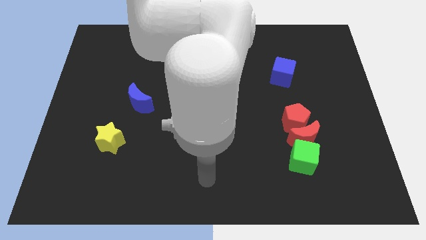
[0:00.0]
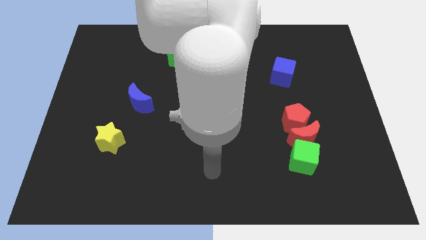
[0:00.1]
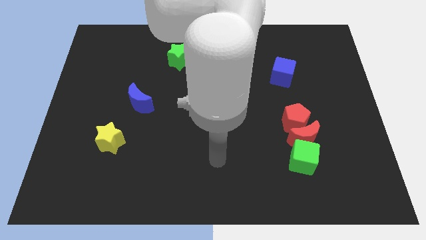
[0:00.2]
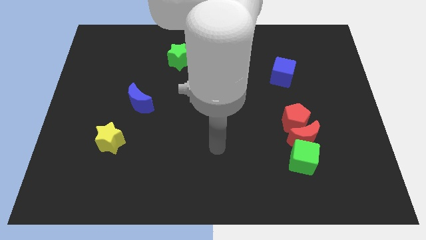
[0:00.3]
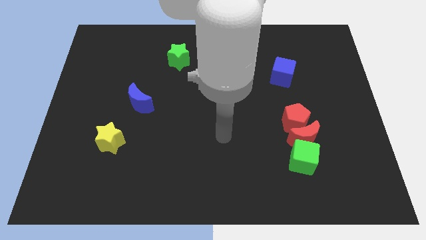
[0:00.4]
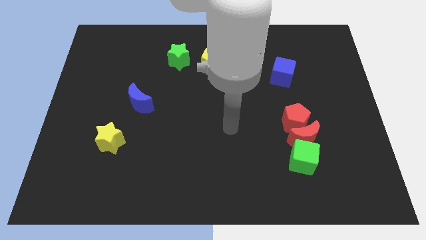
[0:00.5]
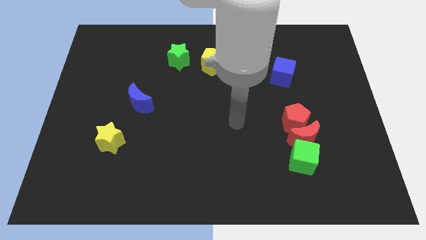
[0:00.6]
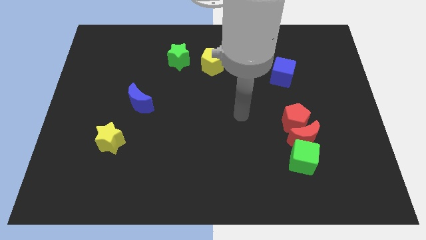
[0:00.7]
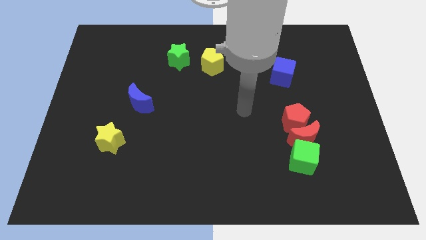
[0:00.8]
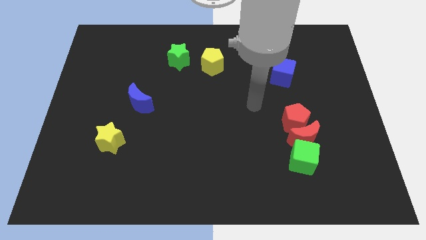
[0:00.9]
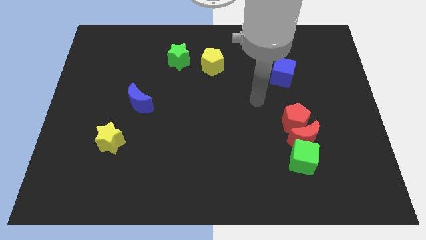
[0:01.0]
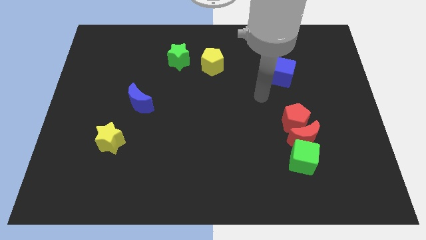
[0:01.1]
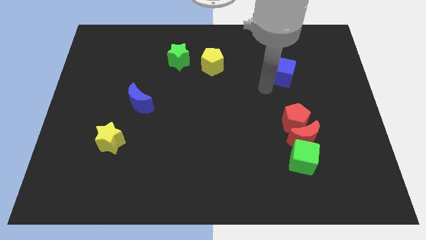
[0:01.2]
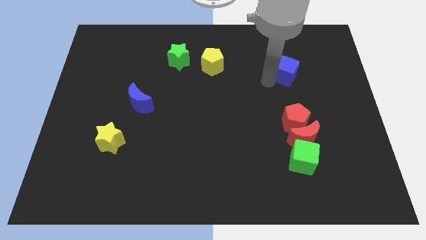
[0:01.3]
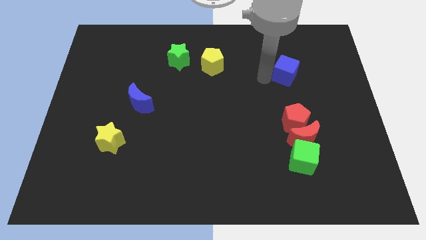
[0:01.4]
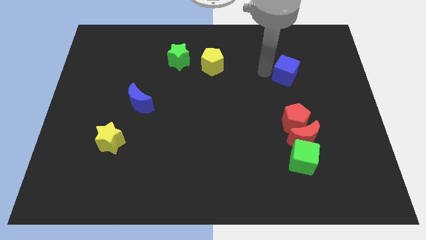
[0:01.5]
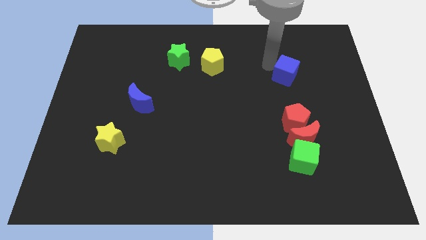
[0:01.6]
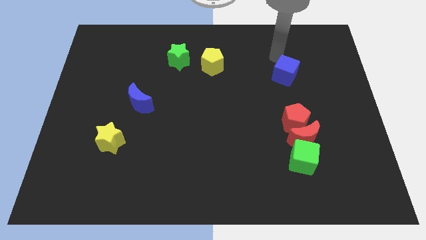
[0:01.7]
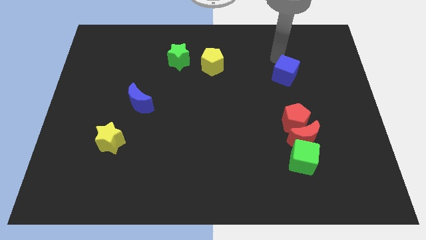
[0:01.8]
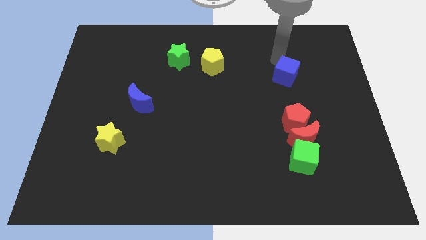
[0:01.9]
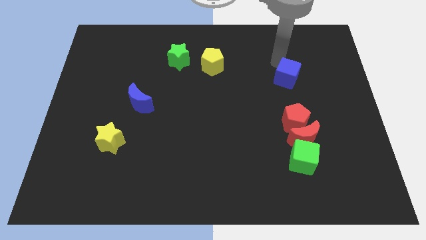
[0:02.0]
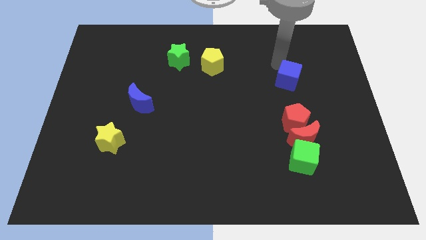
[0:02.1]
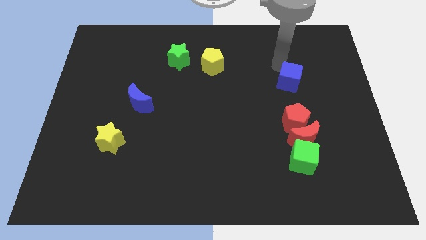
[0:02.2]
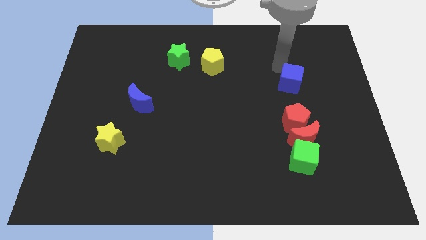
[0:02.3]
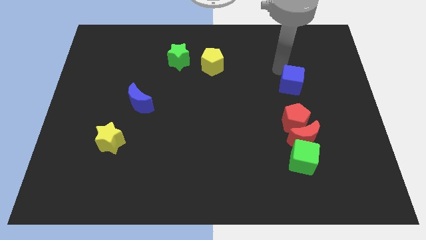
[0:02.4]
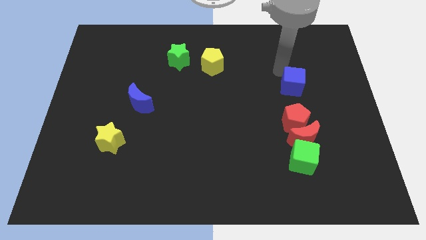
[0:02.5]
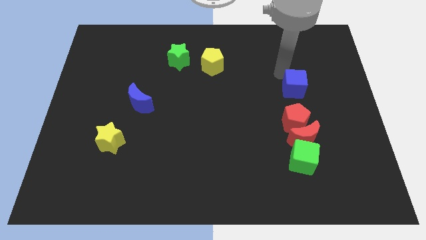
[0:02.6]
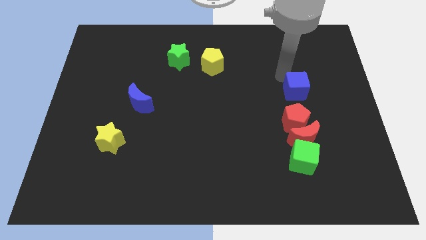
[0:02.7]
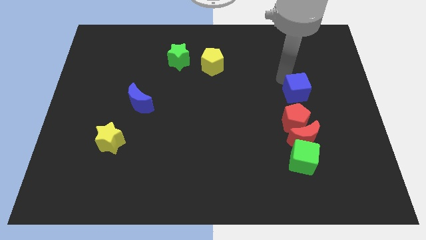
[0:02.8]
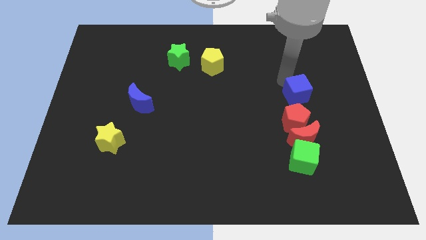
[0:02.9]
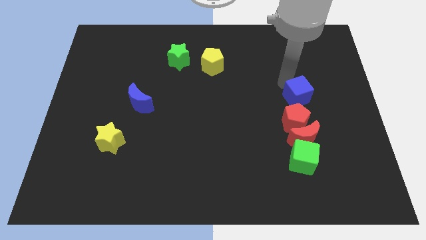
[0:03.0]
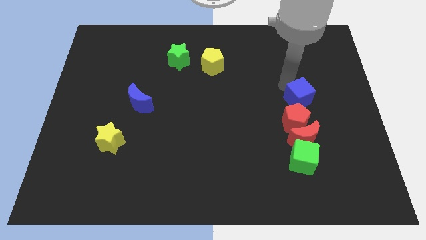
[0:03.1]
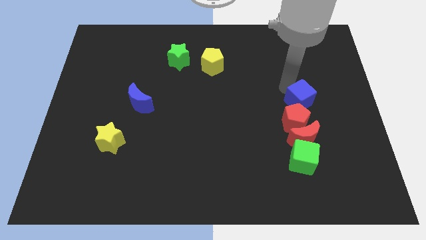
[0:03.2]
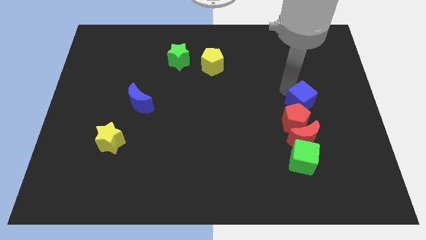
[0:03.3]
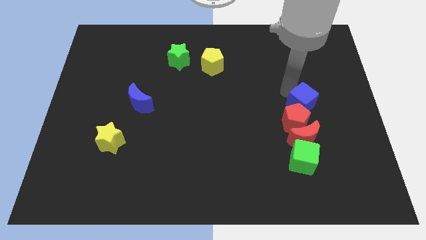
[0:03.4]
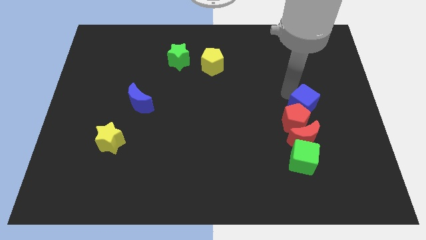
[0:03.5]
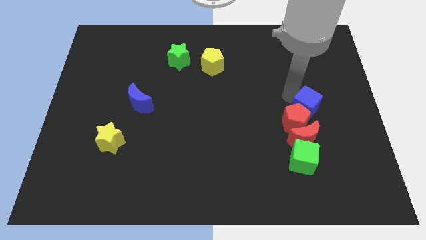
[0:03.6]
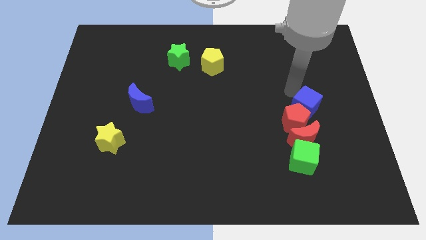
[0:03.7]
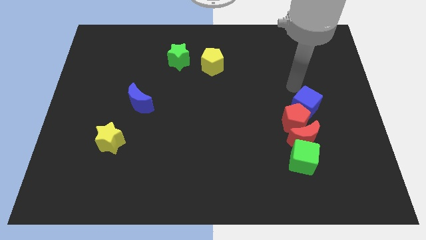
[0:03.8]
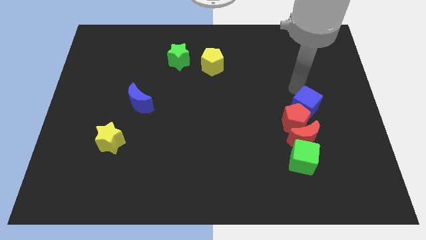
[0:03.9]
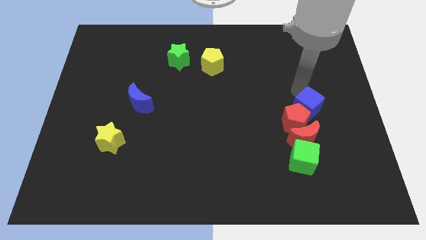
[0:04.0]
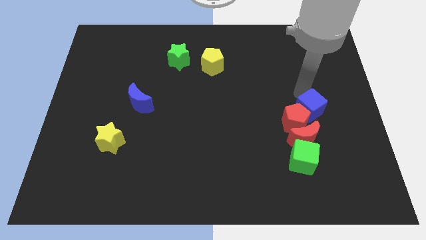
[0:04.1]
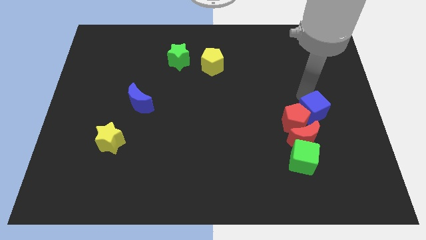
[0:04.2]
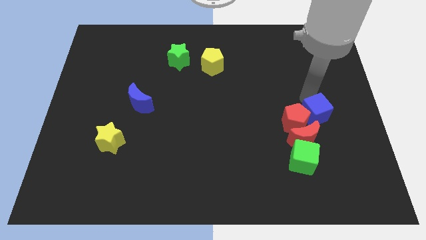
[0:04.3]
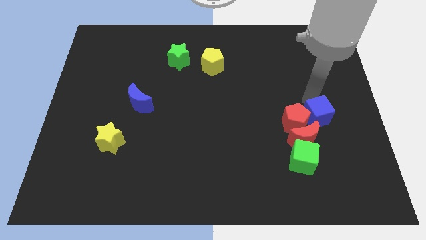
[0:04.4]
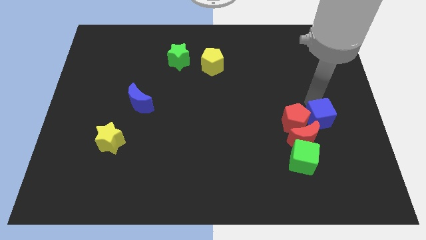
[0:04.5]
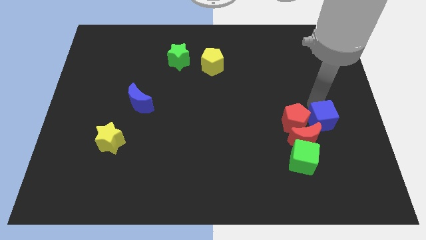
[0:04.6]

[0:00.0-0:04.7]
put the blue cube diagonally up and to the right of the green cube

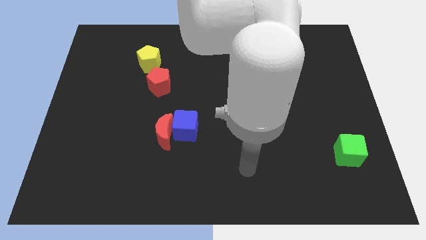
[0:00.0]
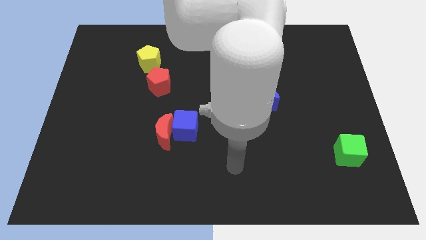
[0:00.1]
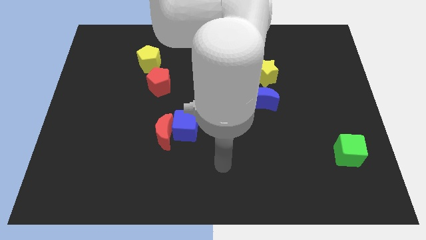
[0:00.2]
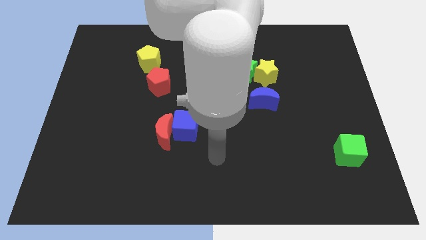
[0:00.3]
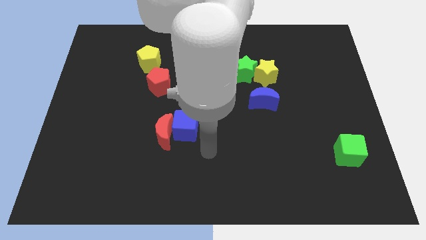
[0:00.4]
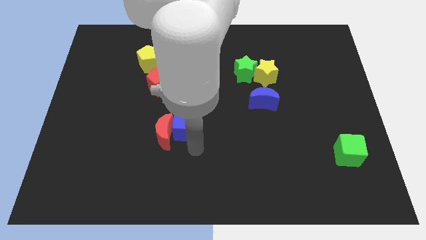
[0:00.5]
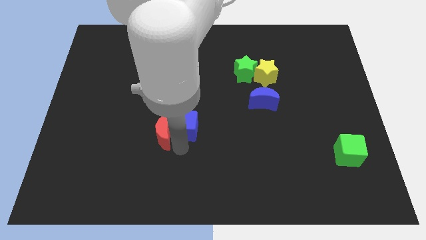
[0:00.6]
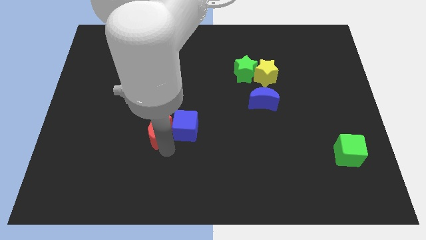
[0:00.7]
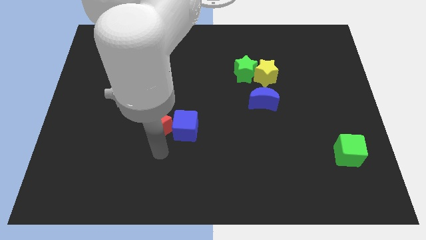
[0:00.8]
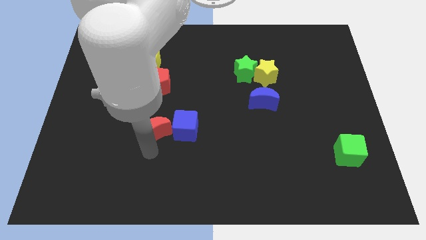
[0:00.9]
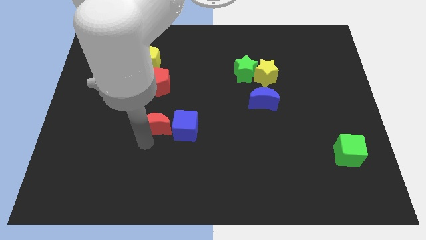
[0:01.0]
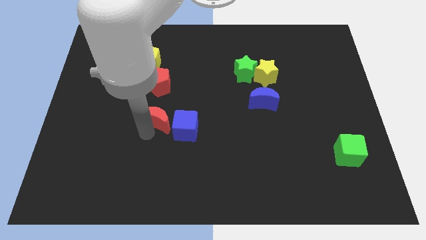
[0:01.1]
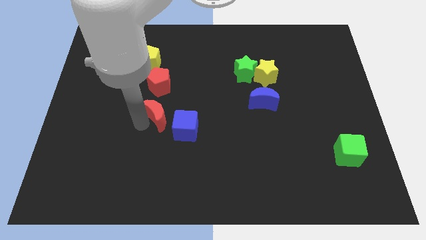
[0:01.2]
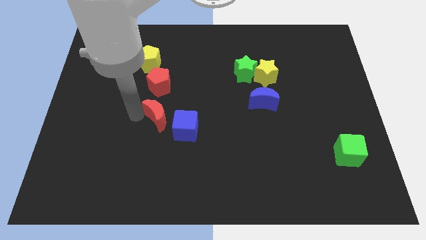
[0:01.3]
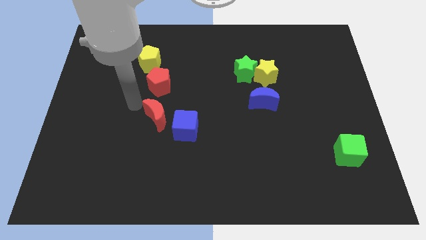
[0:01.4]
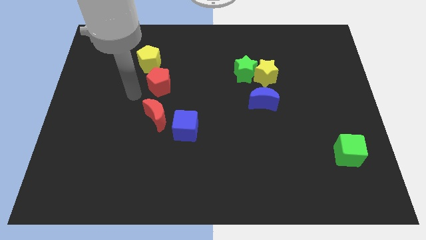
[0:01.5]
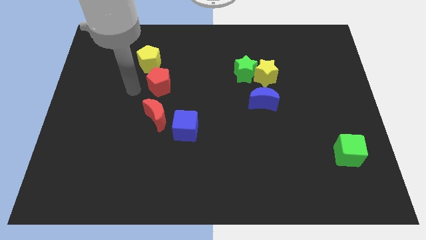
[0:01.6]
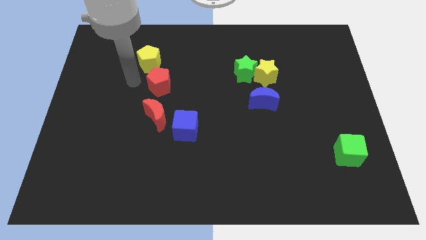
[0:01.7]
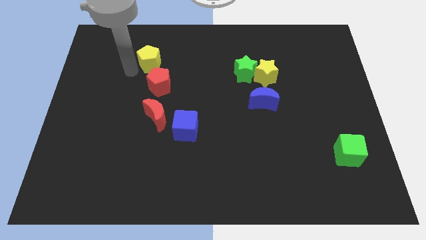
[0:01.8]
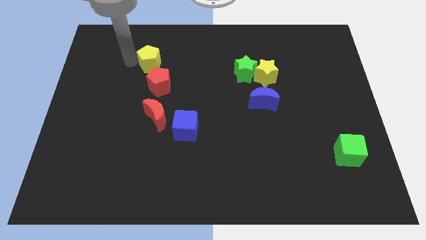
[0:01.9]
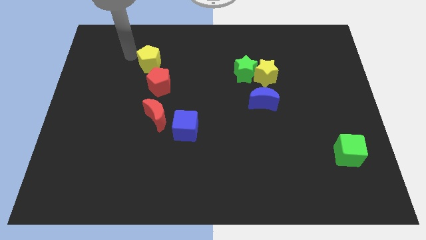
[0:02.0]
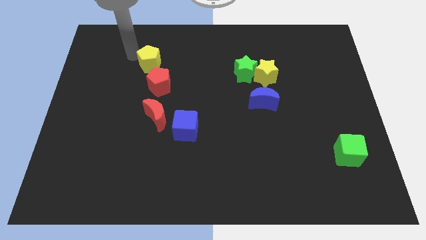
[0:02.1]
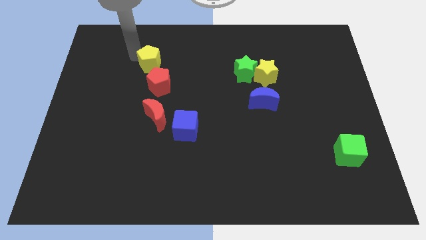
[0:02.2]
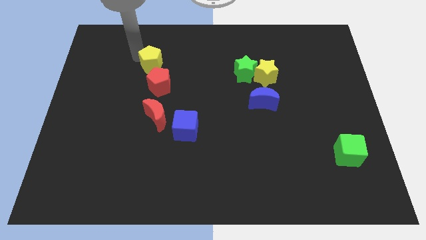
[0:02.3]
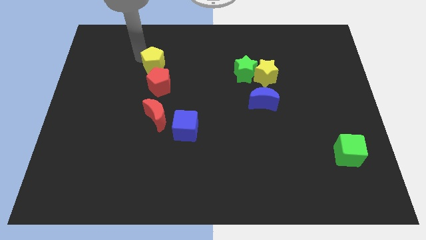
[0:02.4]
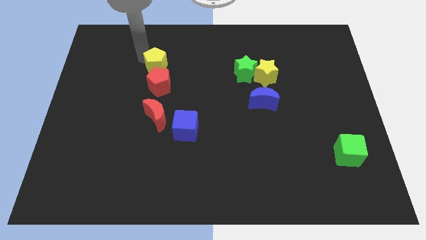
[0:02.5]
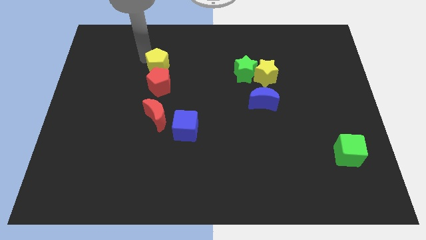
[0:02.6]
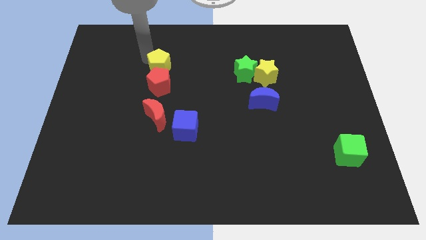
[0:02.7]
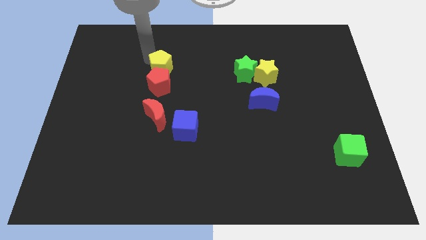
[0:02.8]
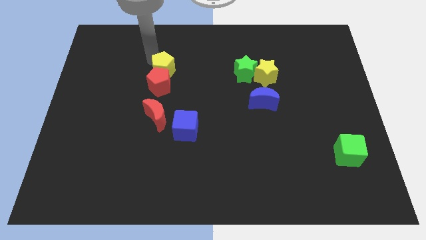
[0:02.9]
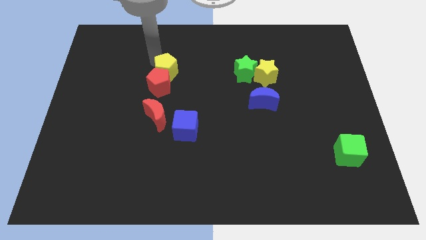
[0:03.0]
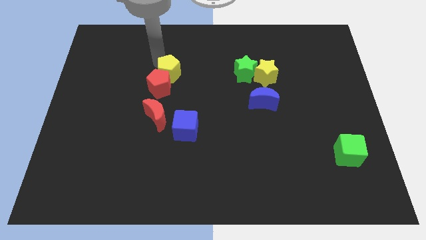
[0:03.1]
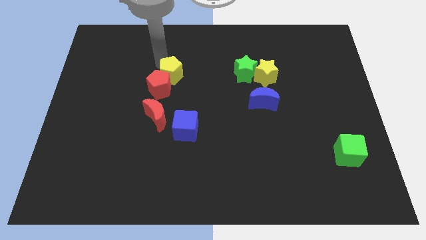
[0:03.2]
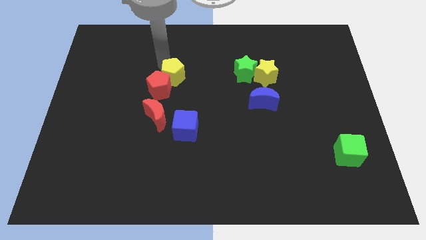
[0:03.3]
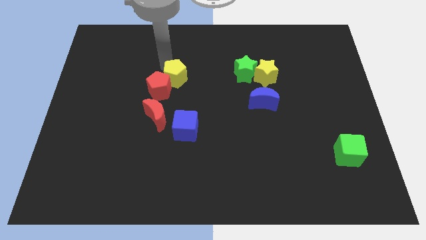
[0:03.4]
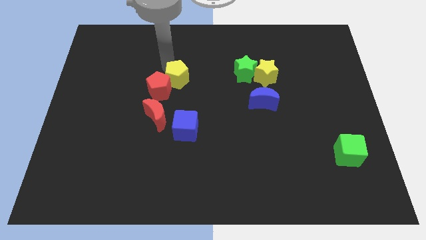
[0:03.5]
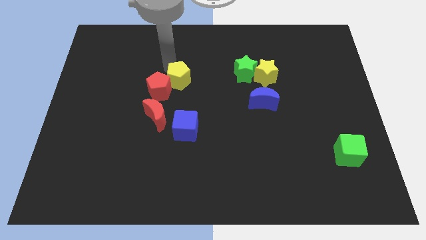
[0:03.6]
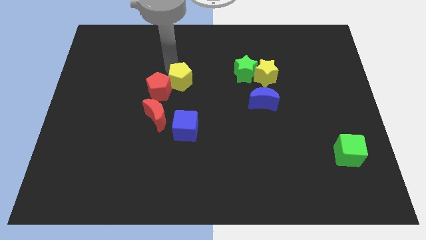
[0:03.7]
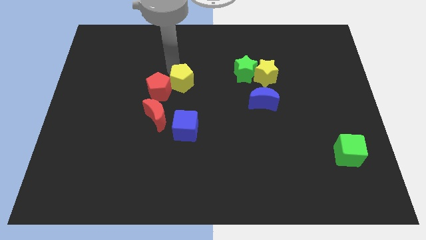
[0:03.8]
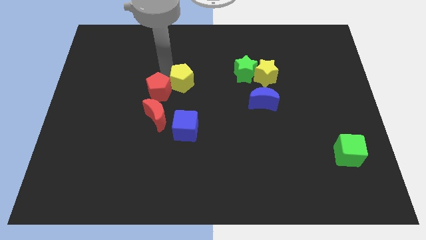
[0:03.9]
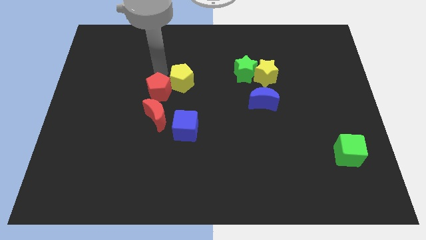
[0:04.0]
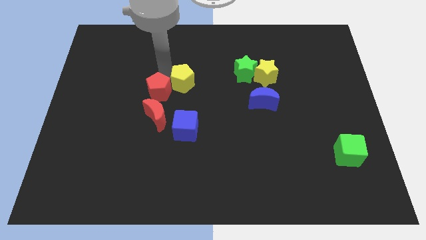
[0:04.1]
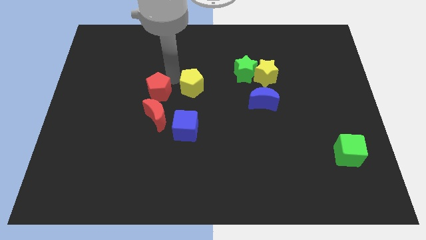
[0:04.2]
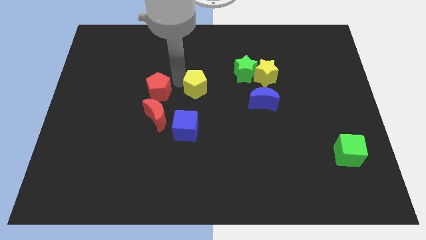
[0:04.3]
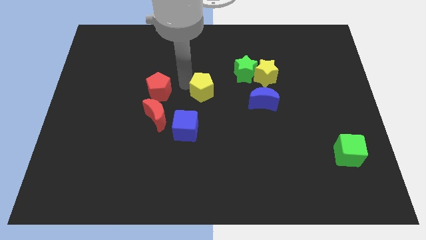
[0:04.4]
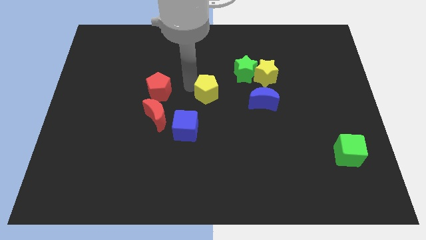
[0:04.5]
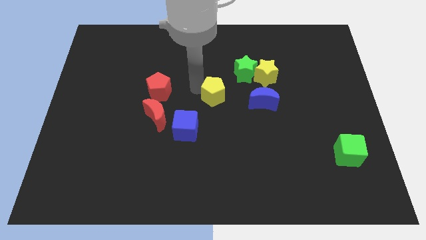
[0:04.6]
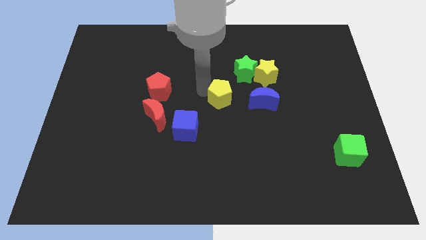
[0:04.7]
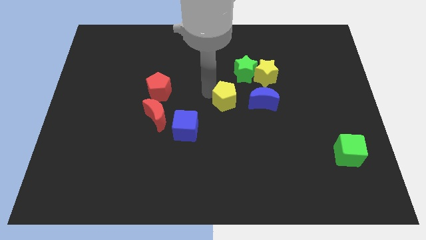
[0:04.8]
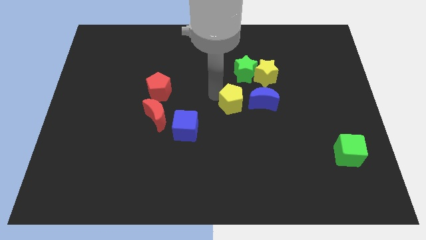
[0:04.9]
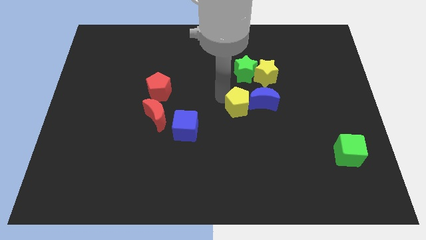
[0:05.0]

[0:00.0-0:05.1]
push the yellow pentagon to the bottom left of the blue moon
